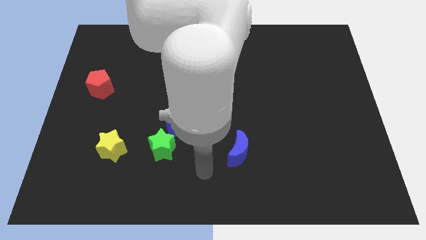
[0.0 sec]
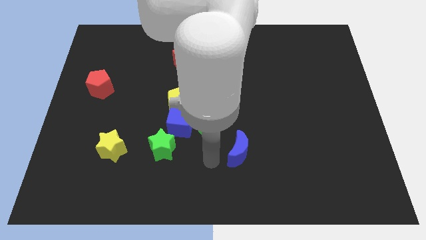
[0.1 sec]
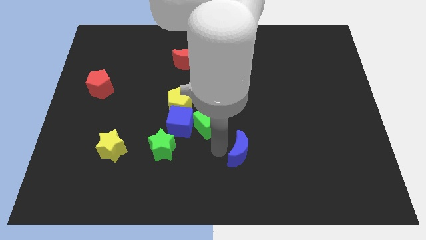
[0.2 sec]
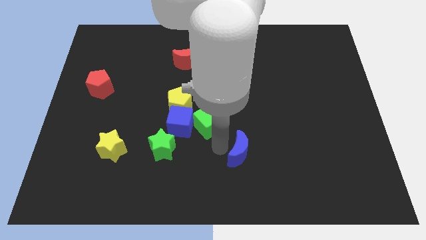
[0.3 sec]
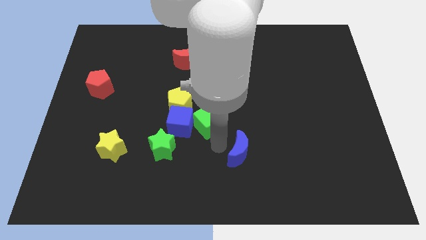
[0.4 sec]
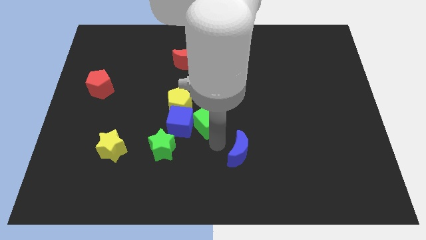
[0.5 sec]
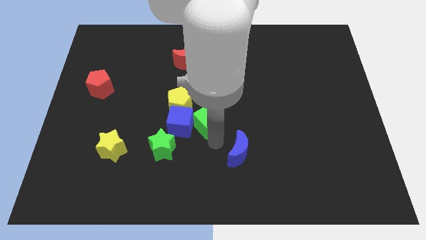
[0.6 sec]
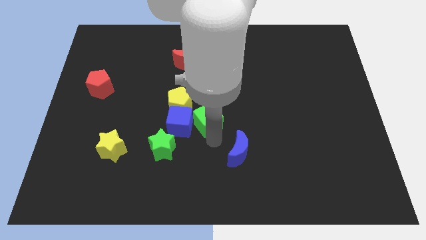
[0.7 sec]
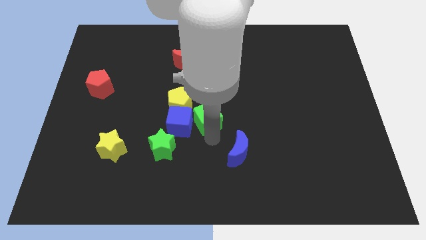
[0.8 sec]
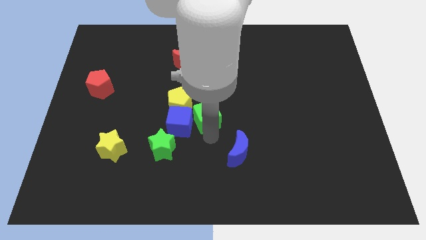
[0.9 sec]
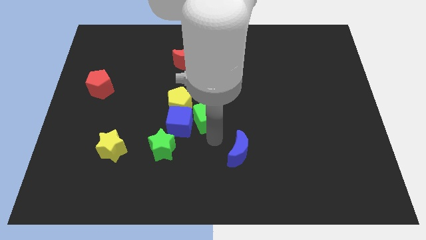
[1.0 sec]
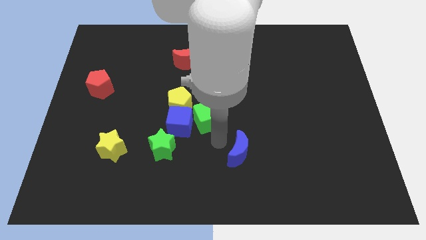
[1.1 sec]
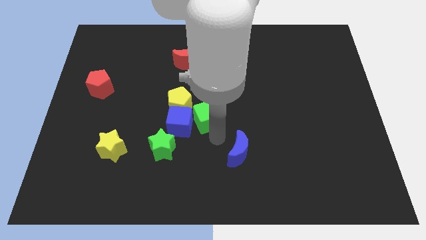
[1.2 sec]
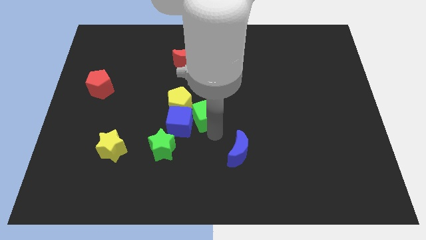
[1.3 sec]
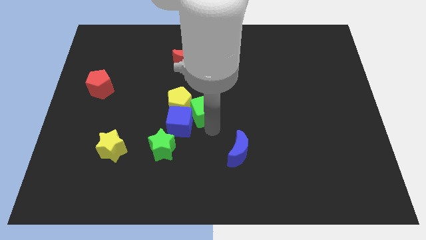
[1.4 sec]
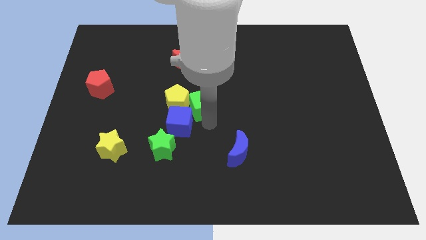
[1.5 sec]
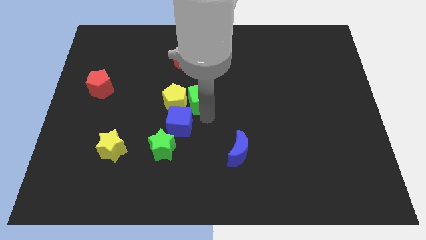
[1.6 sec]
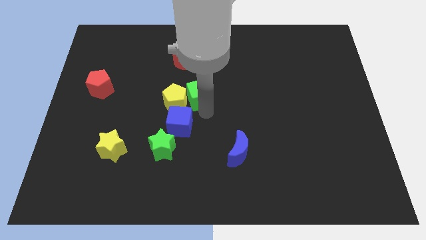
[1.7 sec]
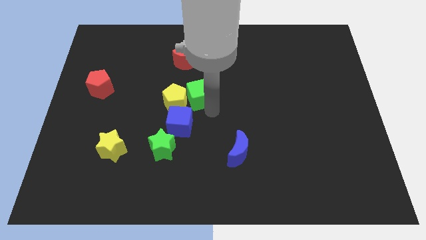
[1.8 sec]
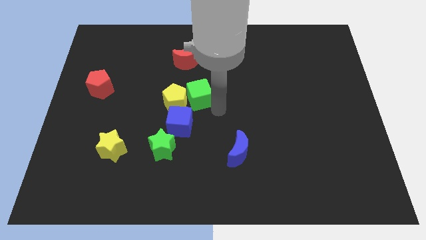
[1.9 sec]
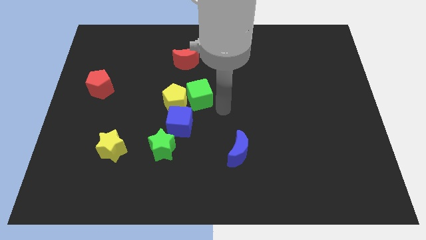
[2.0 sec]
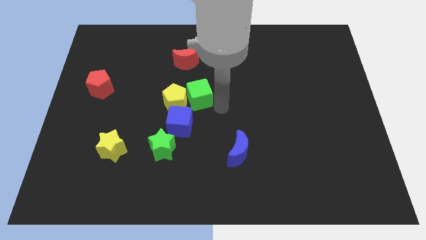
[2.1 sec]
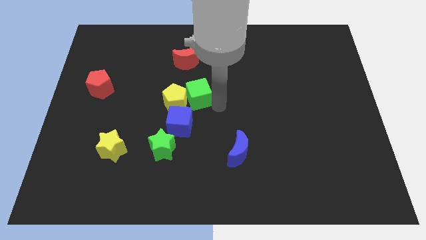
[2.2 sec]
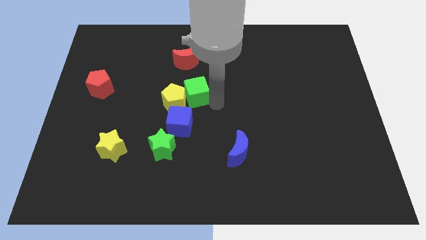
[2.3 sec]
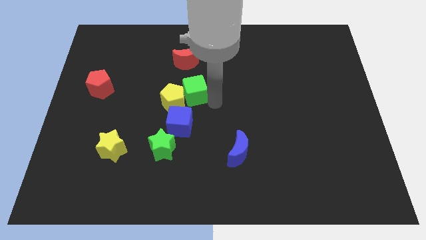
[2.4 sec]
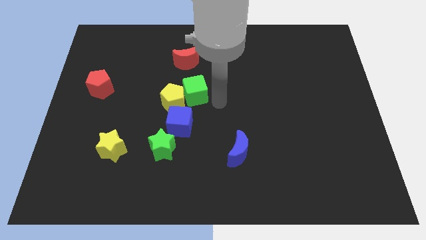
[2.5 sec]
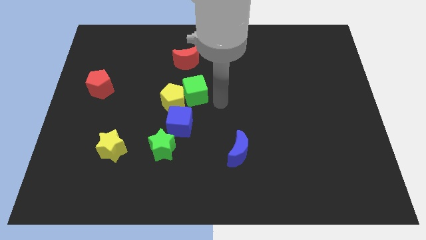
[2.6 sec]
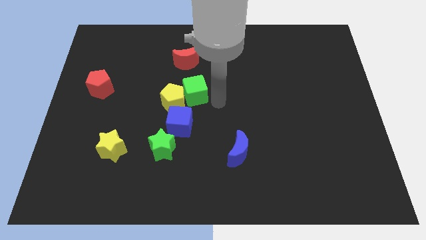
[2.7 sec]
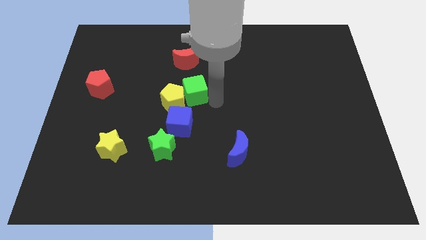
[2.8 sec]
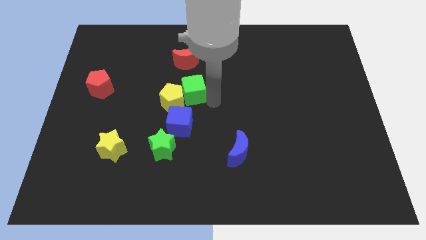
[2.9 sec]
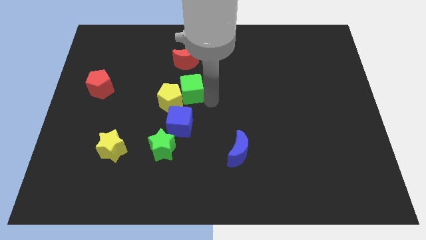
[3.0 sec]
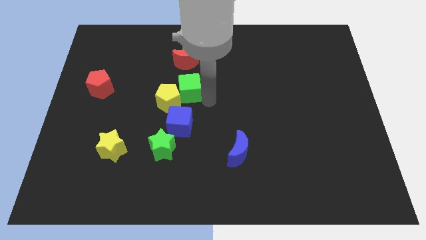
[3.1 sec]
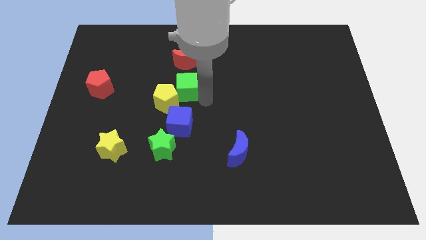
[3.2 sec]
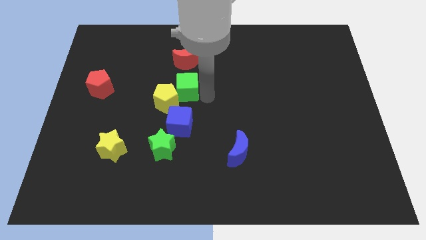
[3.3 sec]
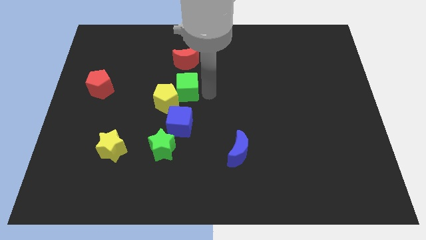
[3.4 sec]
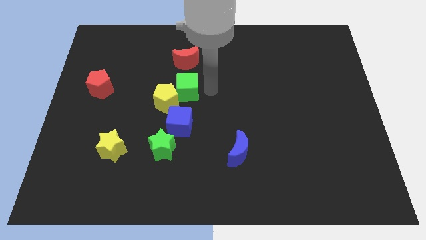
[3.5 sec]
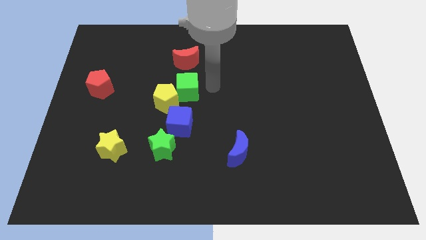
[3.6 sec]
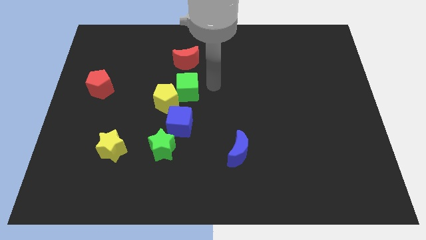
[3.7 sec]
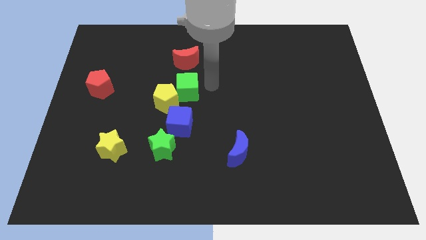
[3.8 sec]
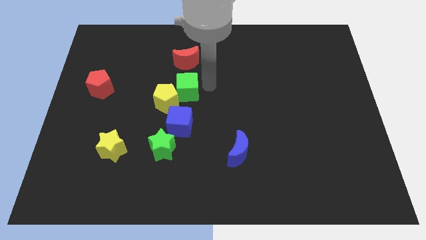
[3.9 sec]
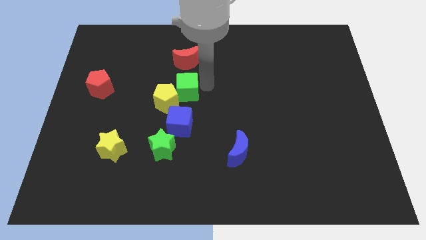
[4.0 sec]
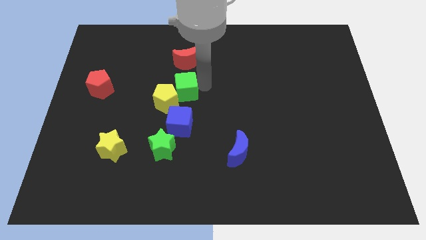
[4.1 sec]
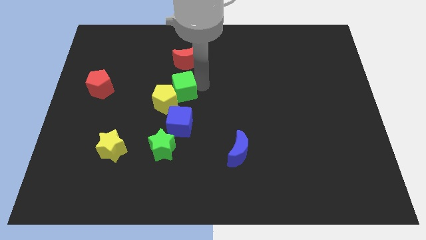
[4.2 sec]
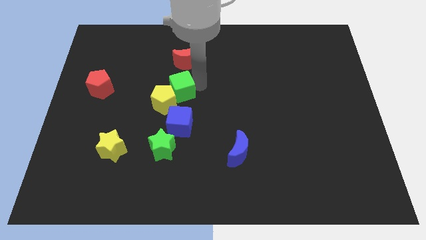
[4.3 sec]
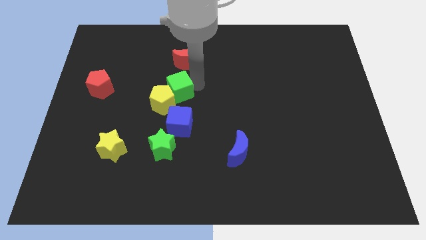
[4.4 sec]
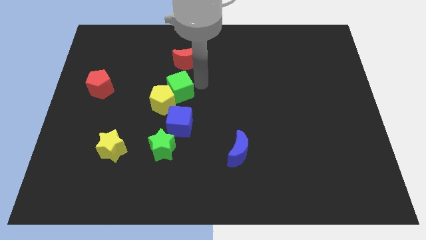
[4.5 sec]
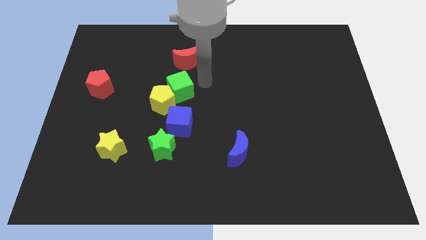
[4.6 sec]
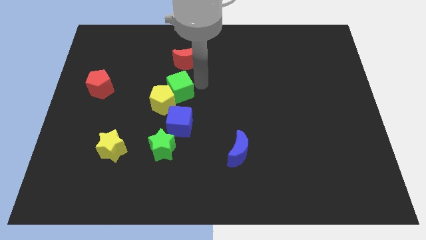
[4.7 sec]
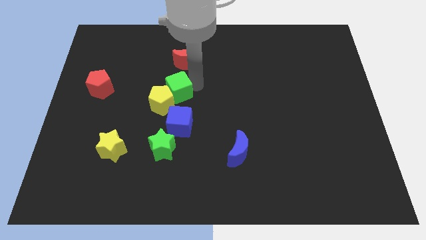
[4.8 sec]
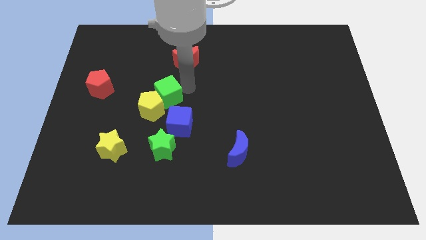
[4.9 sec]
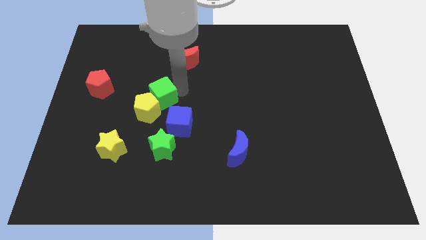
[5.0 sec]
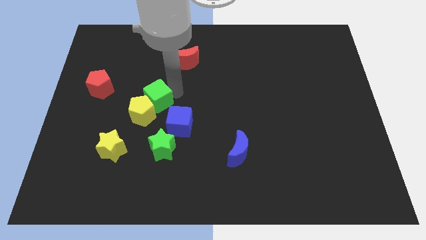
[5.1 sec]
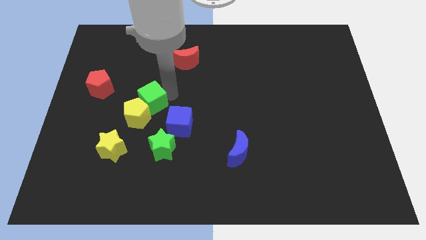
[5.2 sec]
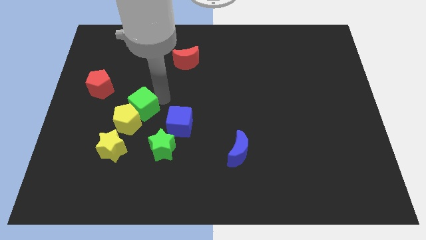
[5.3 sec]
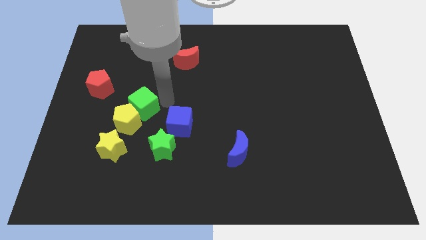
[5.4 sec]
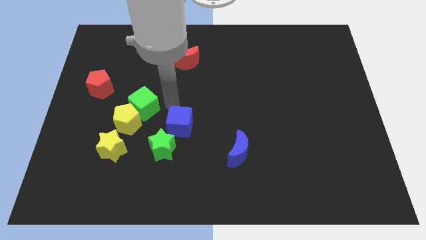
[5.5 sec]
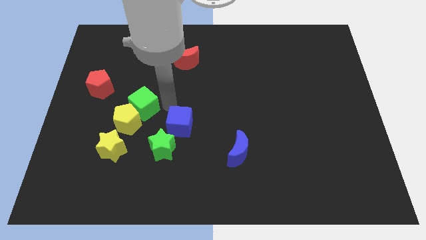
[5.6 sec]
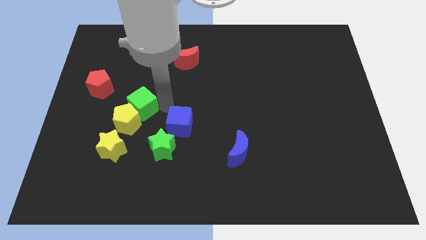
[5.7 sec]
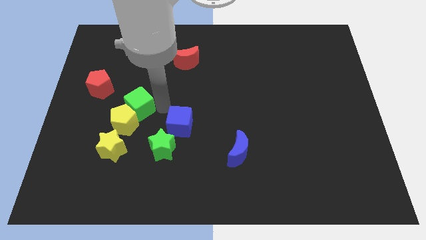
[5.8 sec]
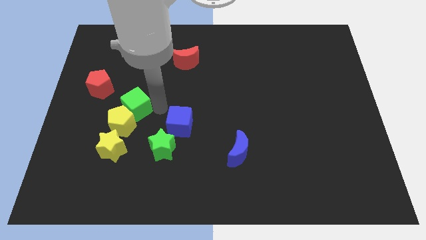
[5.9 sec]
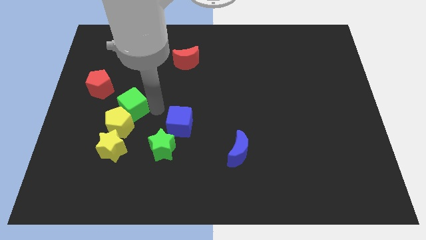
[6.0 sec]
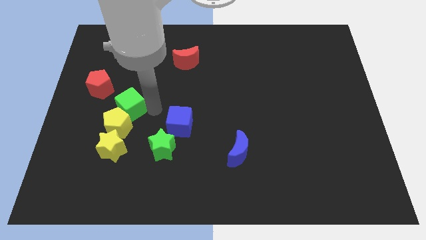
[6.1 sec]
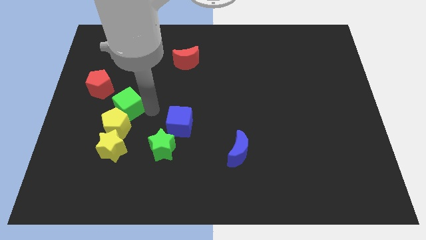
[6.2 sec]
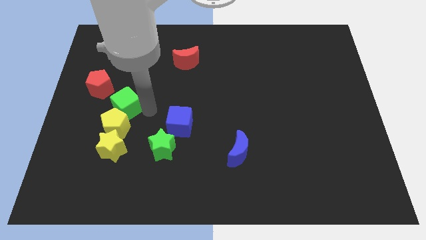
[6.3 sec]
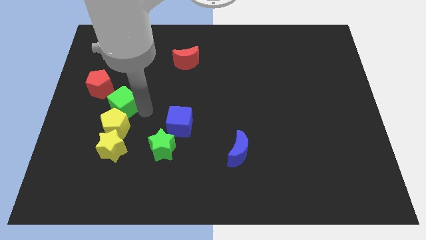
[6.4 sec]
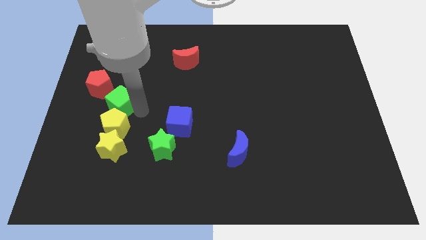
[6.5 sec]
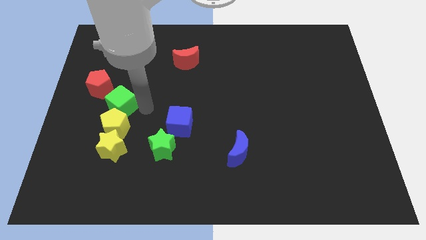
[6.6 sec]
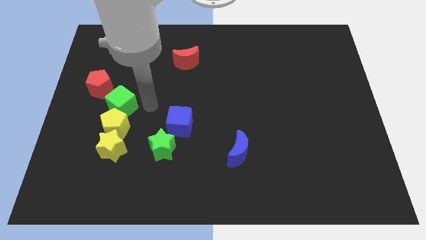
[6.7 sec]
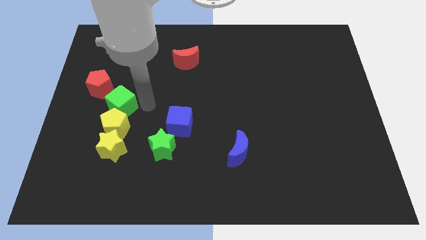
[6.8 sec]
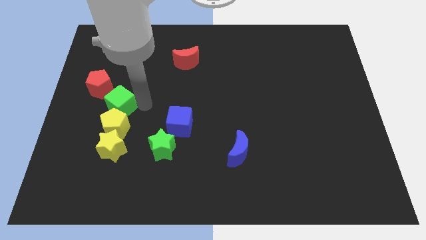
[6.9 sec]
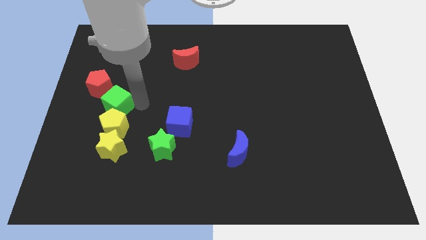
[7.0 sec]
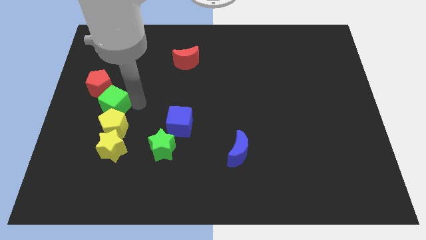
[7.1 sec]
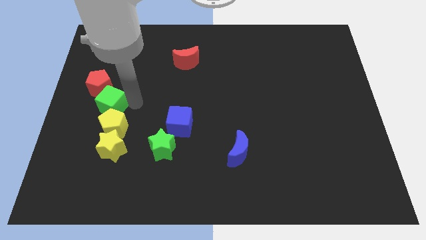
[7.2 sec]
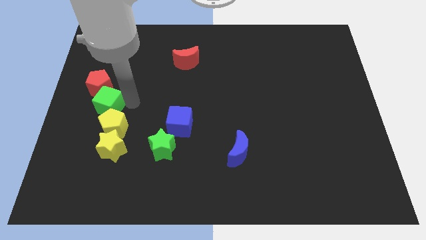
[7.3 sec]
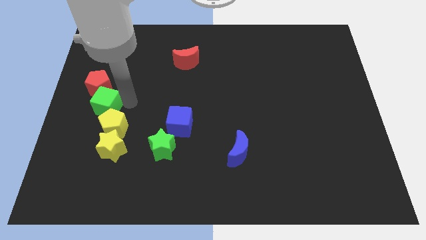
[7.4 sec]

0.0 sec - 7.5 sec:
move the green cube to the left side of the board
